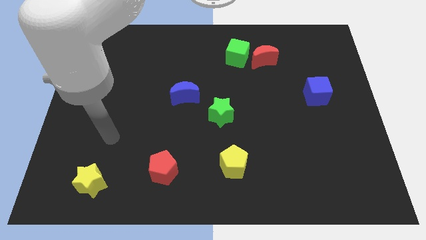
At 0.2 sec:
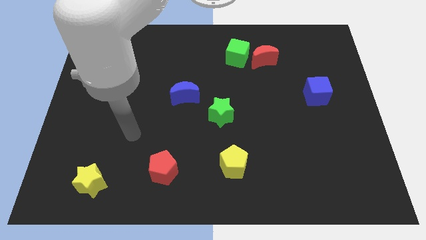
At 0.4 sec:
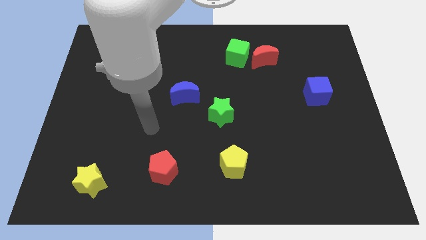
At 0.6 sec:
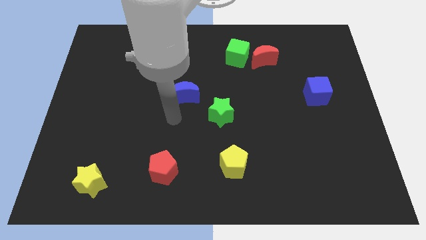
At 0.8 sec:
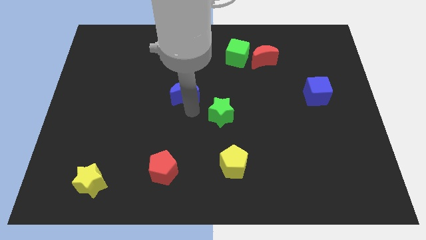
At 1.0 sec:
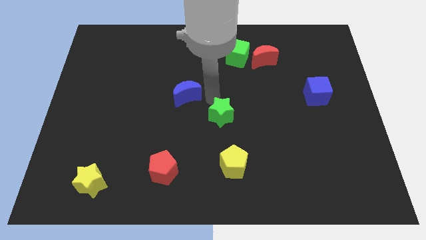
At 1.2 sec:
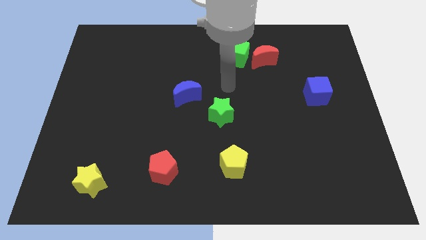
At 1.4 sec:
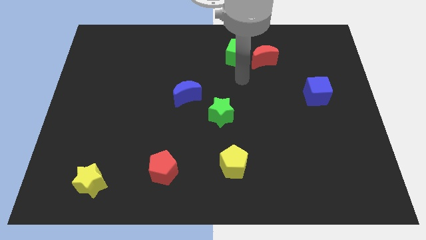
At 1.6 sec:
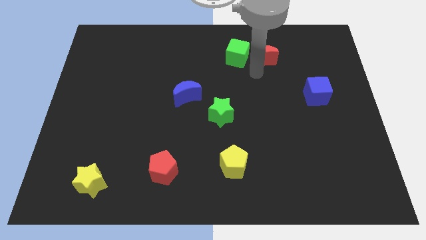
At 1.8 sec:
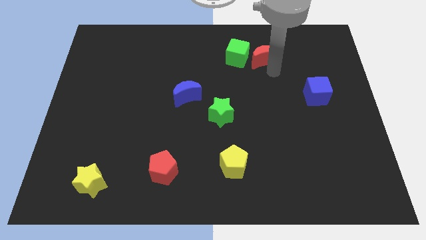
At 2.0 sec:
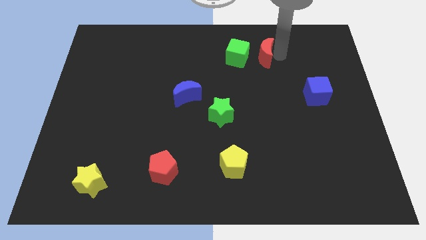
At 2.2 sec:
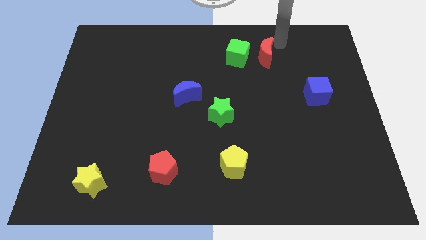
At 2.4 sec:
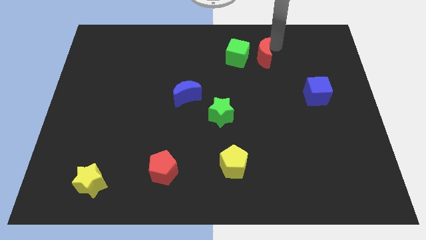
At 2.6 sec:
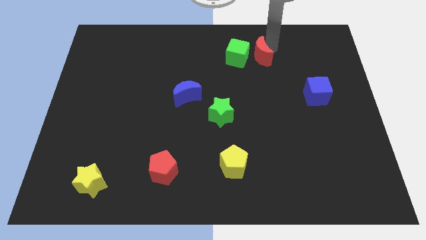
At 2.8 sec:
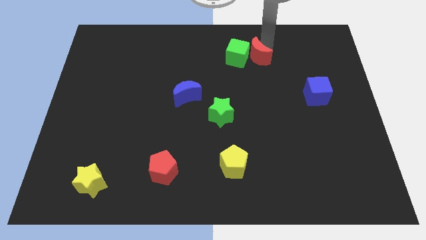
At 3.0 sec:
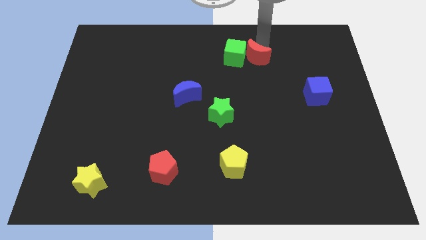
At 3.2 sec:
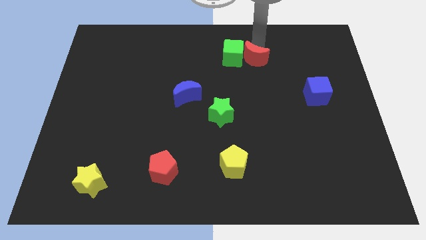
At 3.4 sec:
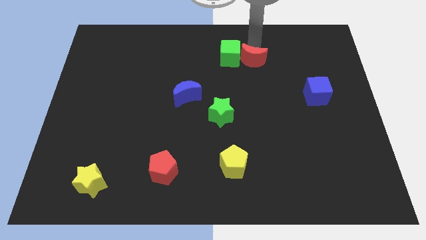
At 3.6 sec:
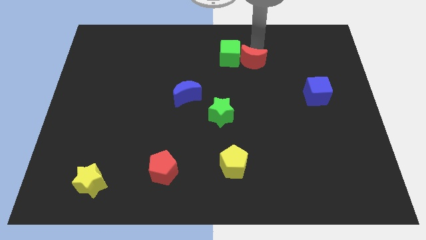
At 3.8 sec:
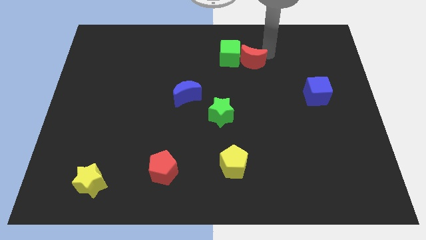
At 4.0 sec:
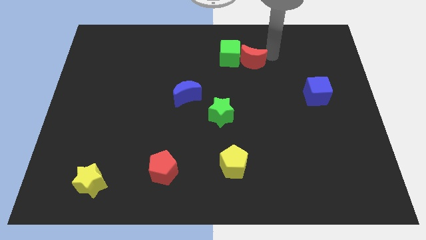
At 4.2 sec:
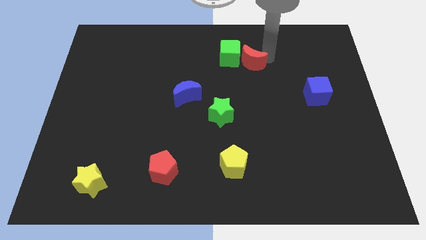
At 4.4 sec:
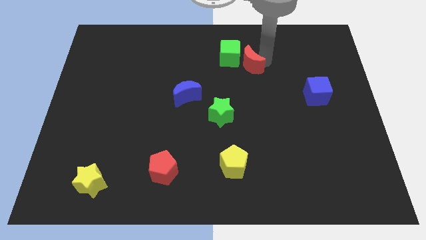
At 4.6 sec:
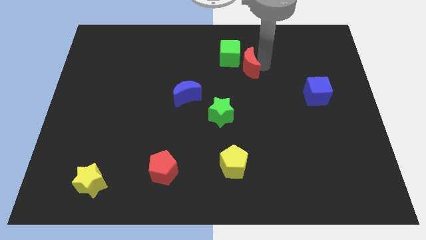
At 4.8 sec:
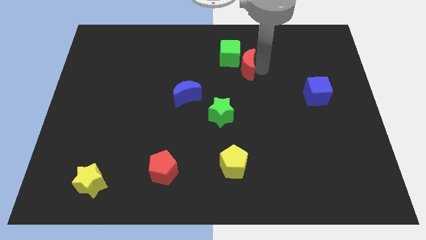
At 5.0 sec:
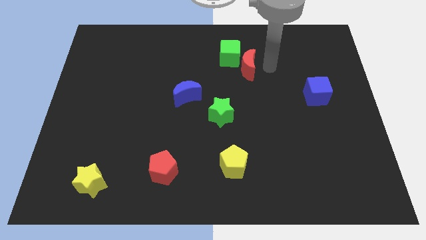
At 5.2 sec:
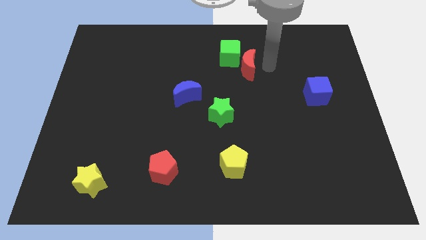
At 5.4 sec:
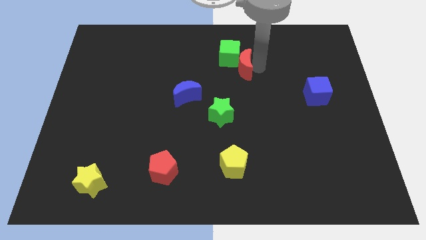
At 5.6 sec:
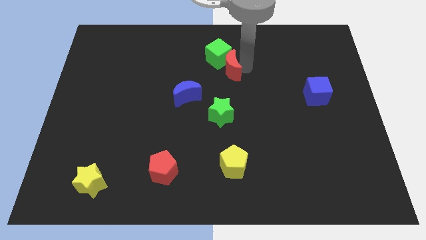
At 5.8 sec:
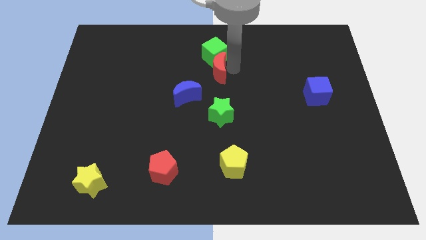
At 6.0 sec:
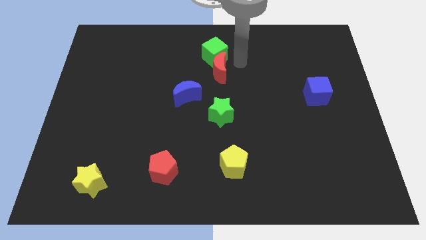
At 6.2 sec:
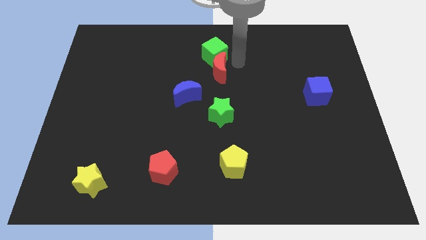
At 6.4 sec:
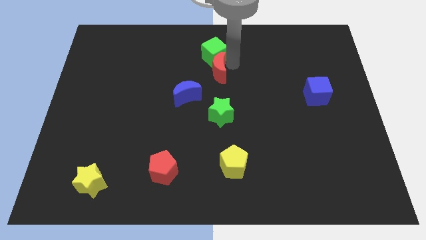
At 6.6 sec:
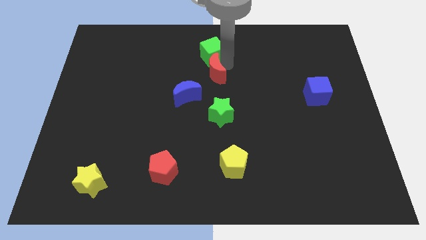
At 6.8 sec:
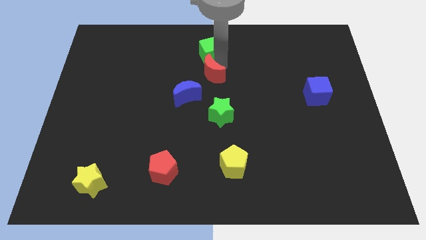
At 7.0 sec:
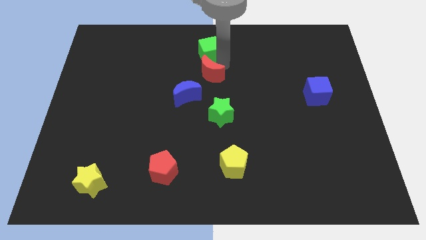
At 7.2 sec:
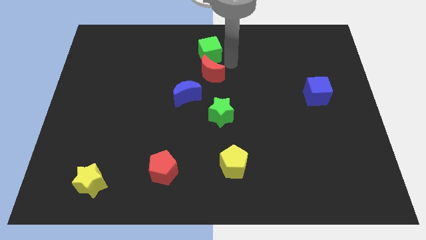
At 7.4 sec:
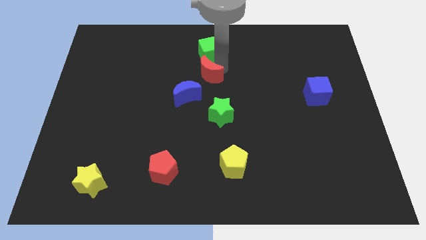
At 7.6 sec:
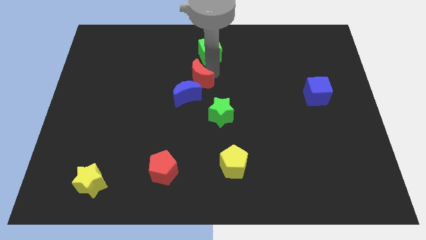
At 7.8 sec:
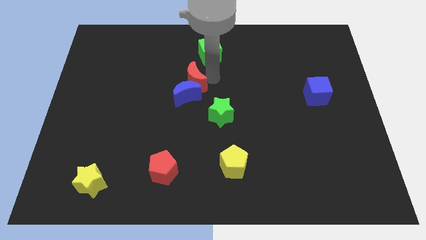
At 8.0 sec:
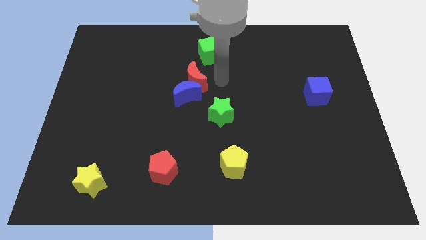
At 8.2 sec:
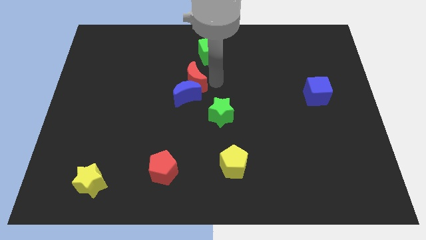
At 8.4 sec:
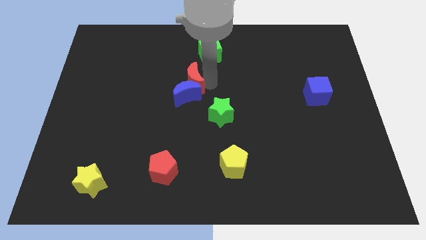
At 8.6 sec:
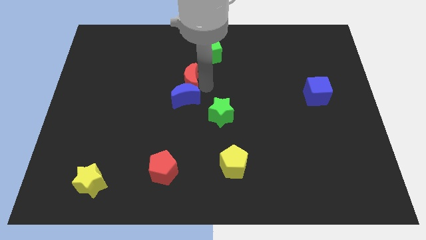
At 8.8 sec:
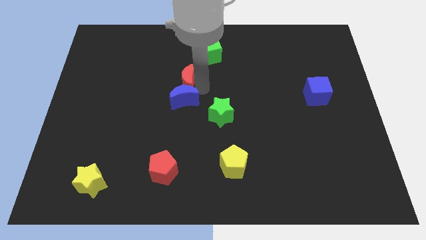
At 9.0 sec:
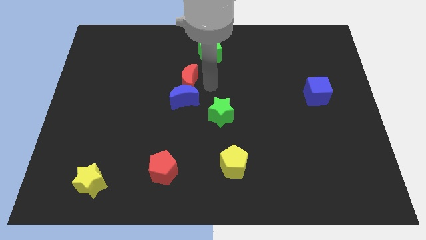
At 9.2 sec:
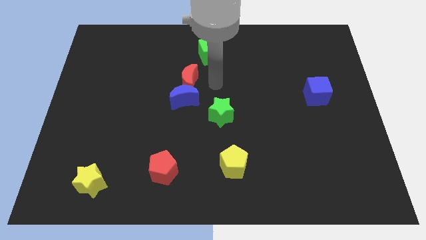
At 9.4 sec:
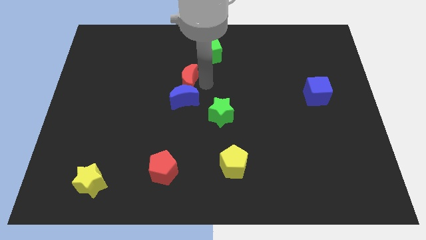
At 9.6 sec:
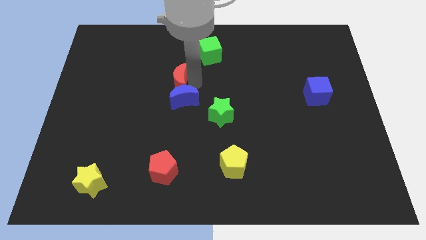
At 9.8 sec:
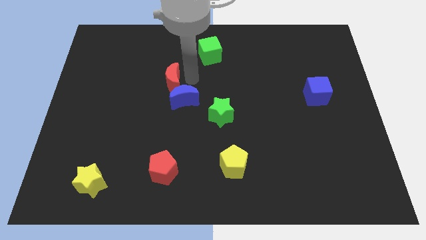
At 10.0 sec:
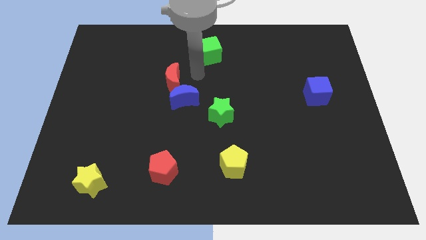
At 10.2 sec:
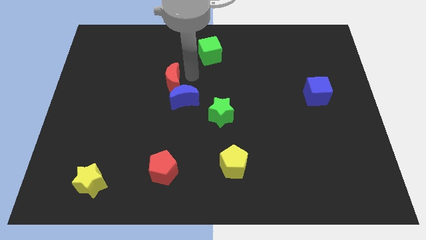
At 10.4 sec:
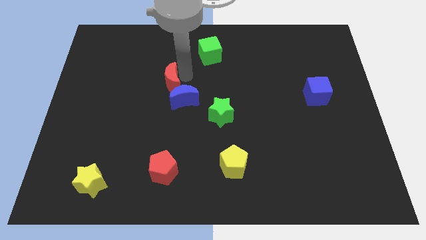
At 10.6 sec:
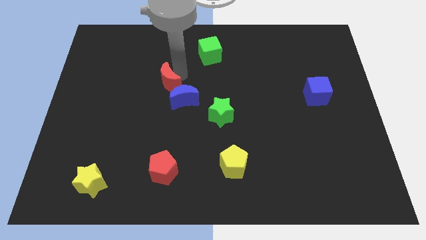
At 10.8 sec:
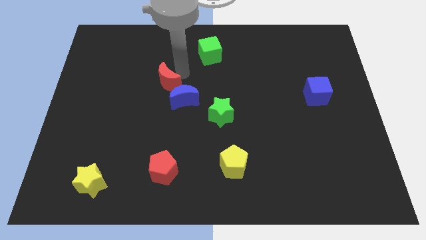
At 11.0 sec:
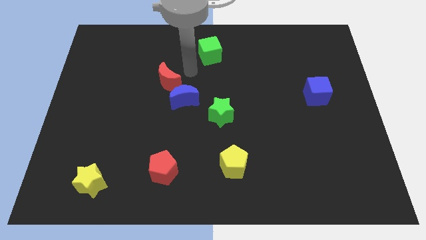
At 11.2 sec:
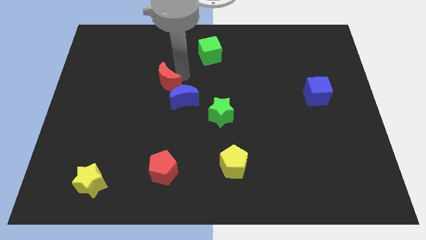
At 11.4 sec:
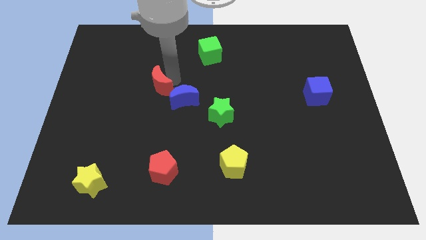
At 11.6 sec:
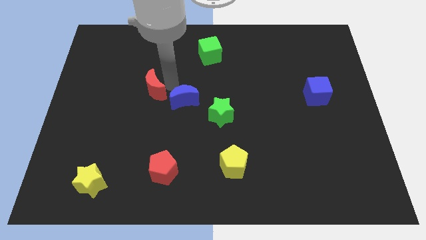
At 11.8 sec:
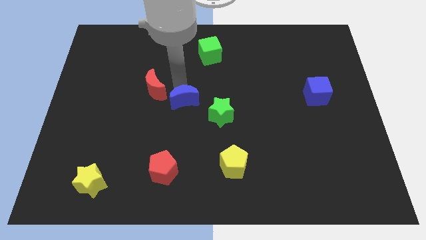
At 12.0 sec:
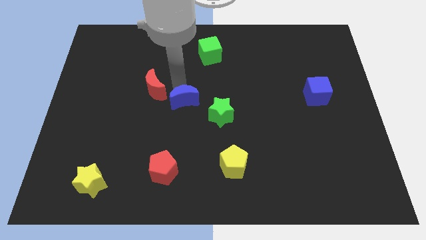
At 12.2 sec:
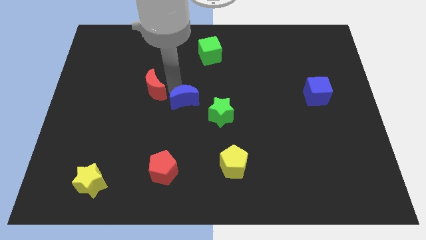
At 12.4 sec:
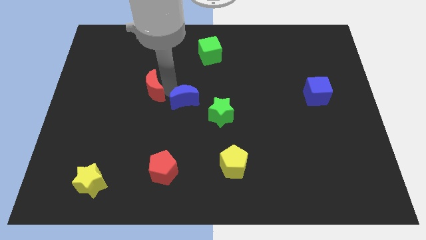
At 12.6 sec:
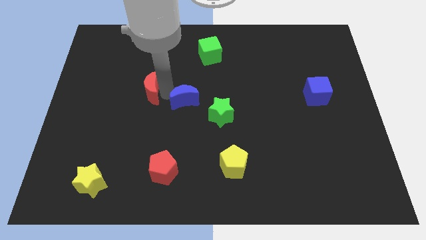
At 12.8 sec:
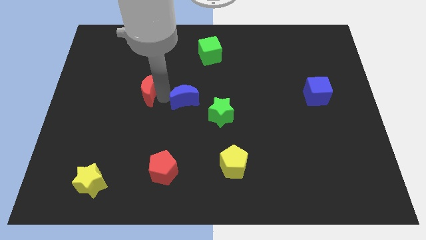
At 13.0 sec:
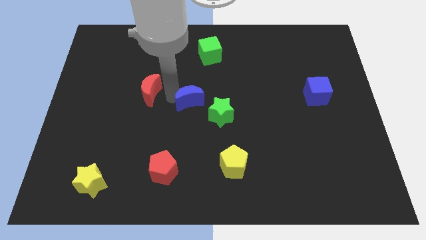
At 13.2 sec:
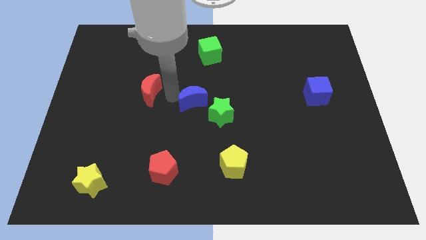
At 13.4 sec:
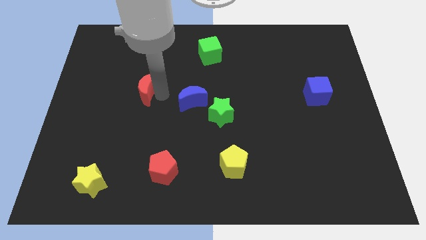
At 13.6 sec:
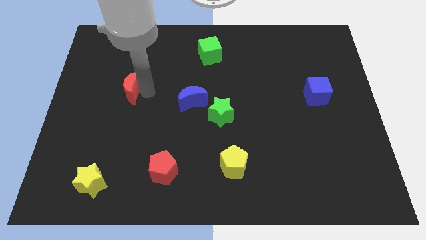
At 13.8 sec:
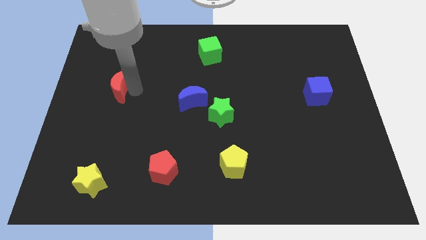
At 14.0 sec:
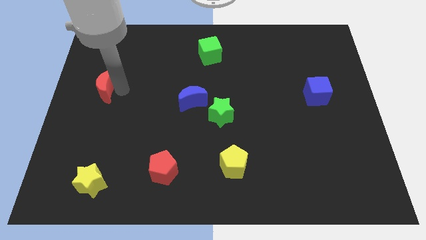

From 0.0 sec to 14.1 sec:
push the red moon to the left side of the board
